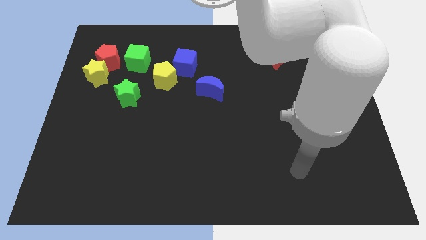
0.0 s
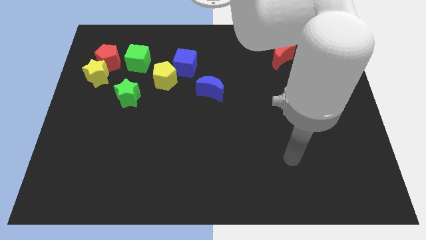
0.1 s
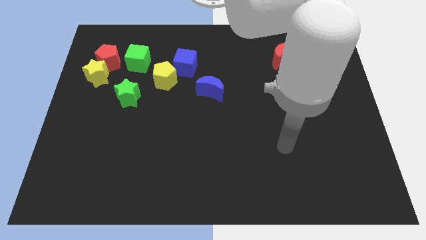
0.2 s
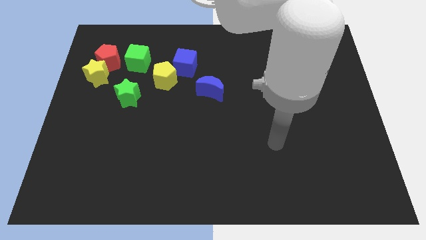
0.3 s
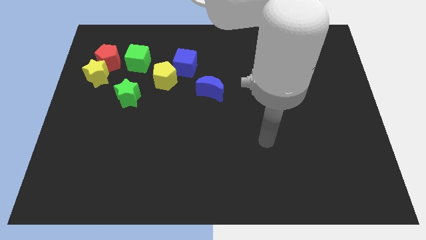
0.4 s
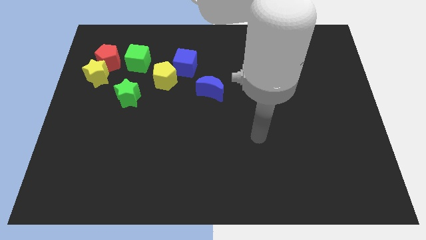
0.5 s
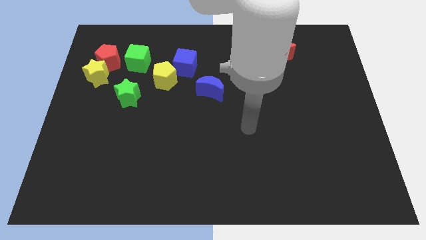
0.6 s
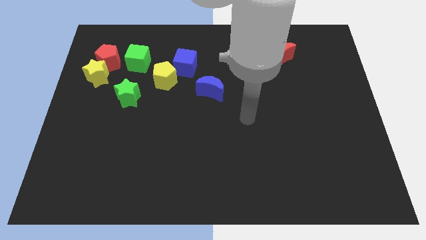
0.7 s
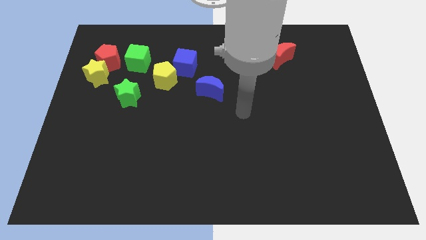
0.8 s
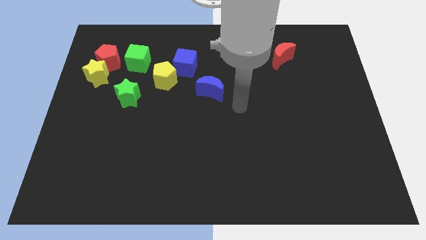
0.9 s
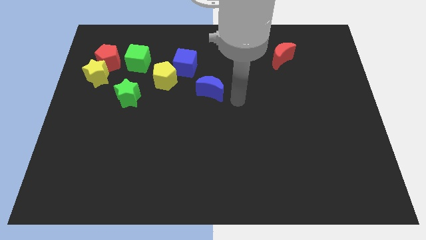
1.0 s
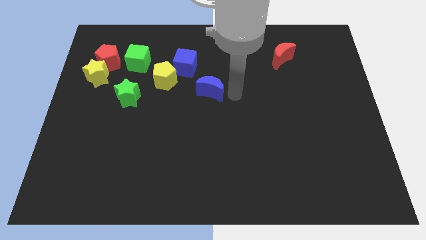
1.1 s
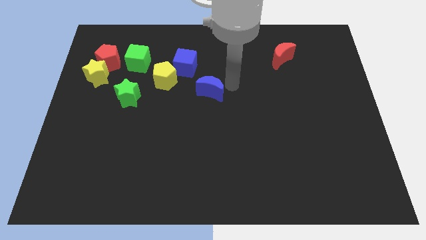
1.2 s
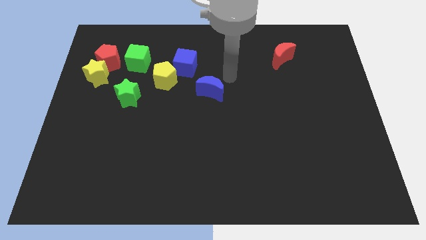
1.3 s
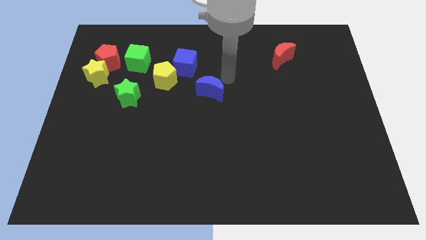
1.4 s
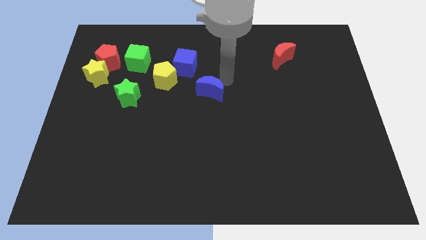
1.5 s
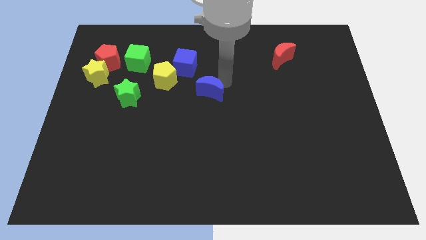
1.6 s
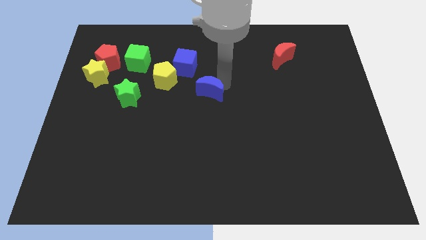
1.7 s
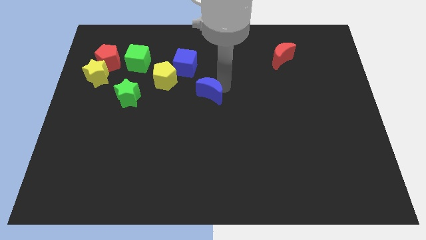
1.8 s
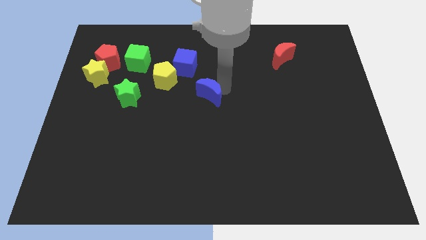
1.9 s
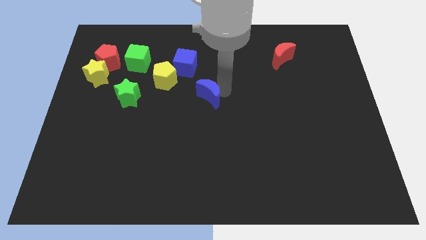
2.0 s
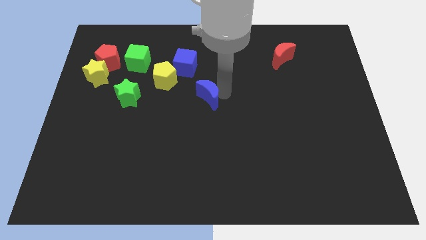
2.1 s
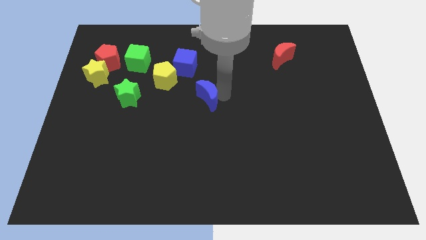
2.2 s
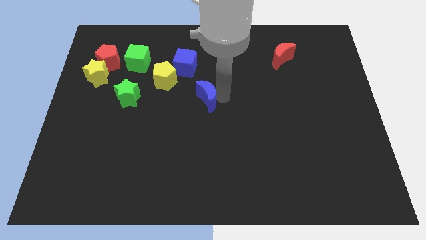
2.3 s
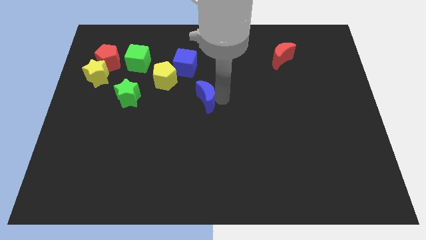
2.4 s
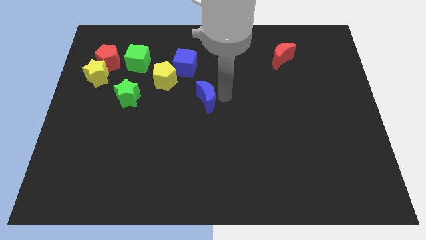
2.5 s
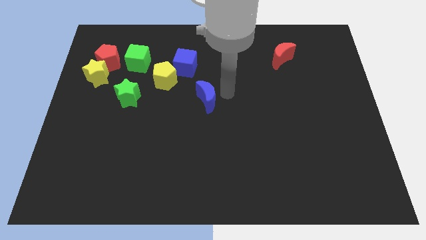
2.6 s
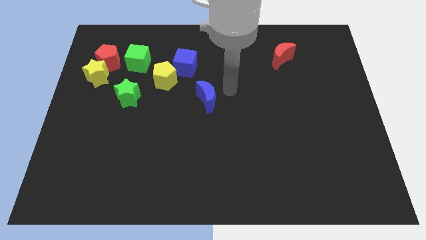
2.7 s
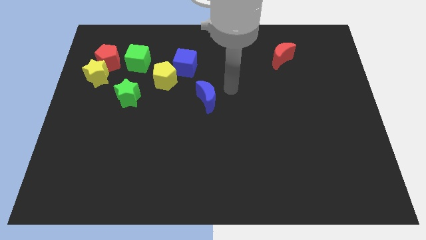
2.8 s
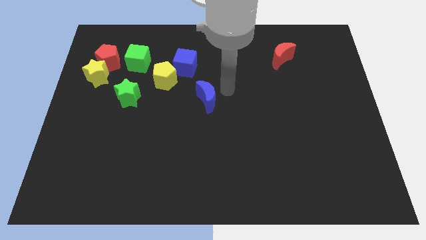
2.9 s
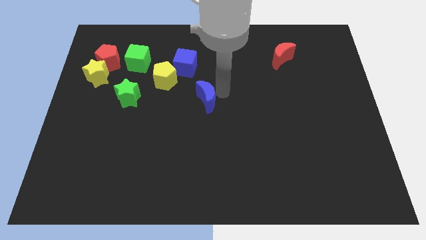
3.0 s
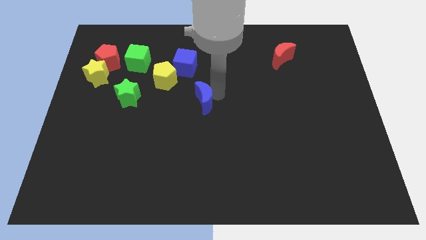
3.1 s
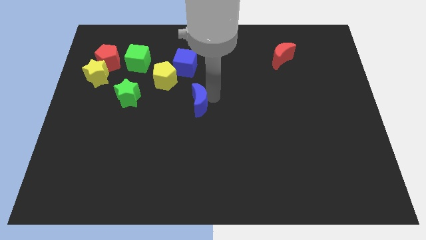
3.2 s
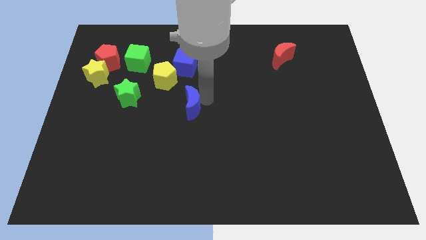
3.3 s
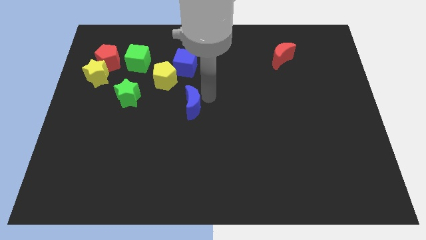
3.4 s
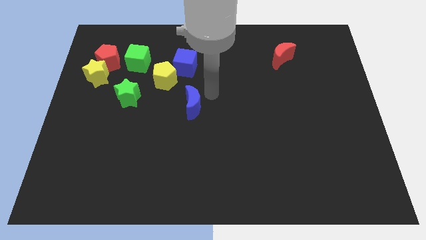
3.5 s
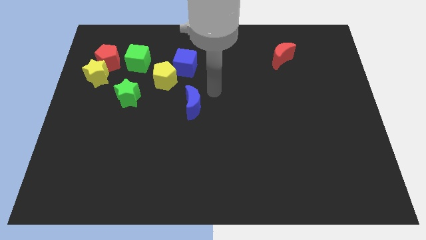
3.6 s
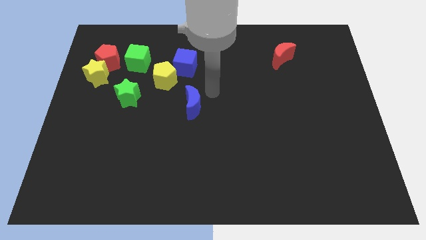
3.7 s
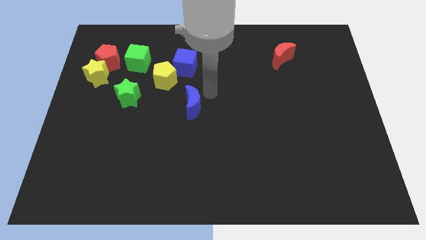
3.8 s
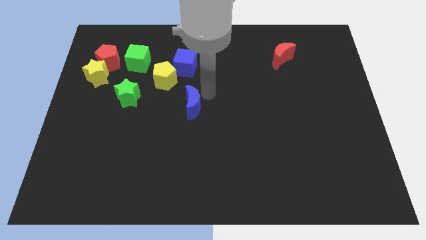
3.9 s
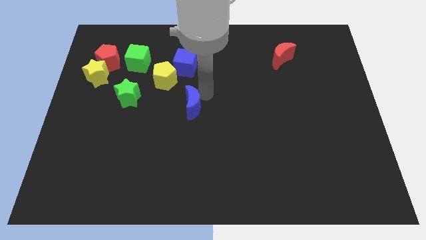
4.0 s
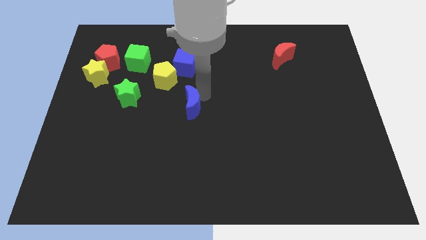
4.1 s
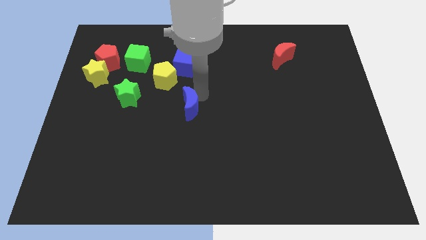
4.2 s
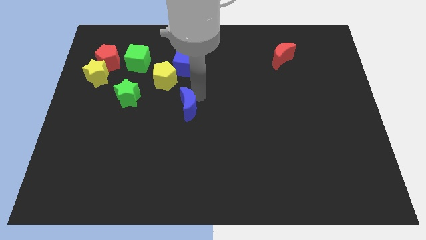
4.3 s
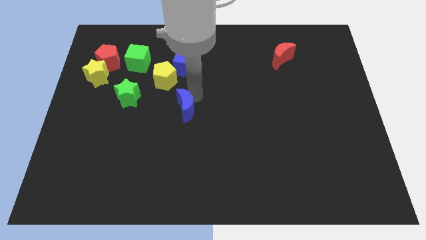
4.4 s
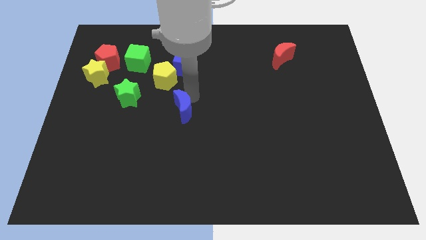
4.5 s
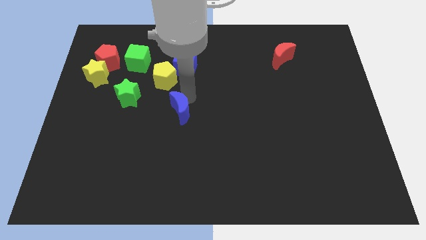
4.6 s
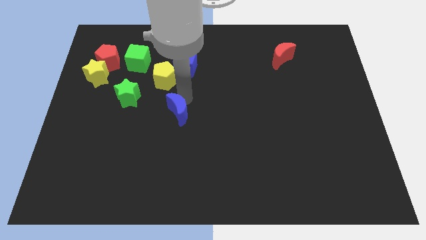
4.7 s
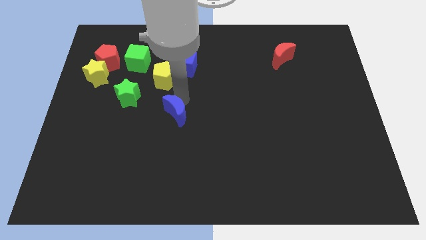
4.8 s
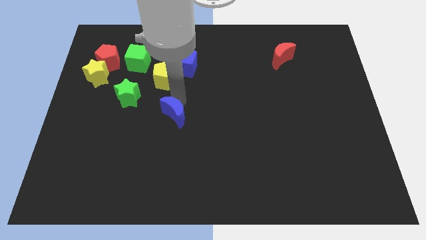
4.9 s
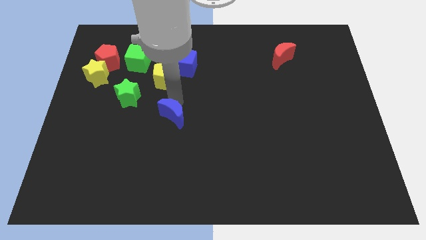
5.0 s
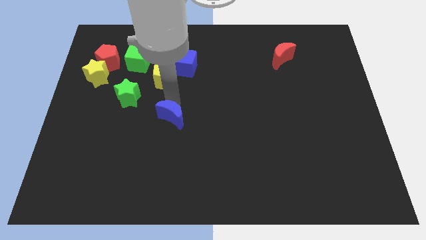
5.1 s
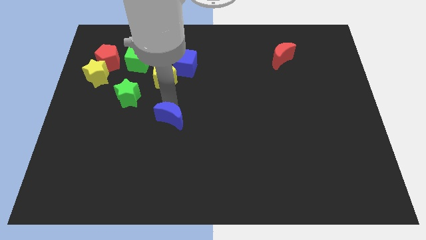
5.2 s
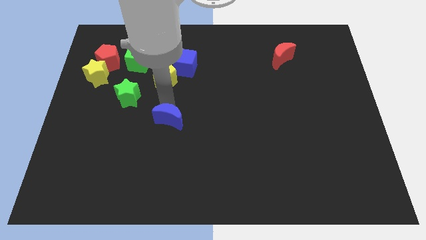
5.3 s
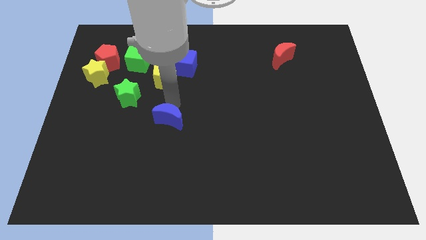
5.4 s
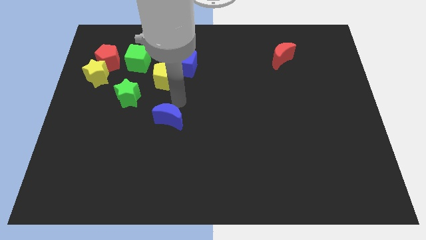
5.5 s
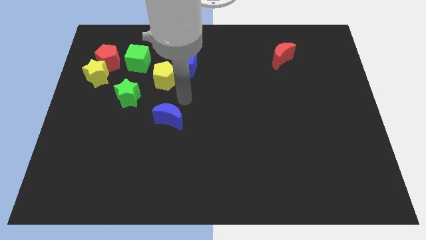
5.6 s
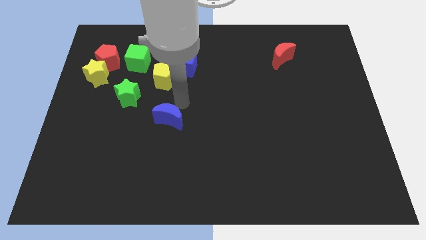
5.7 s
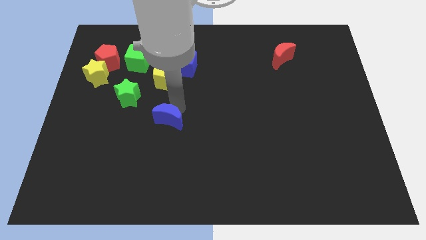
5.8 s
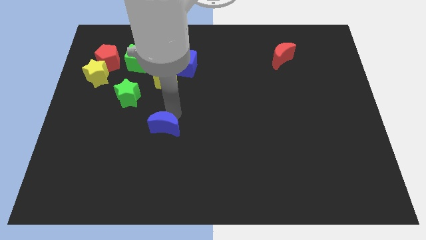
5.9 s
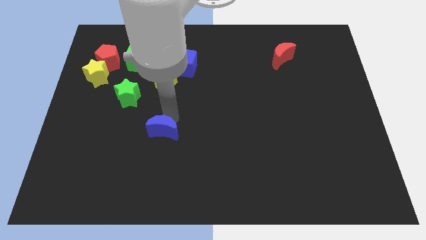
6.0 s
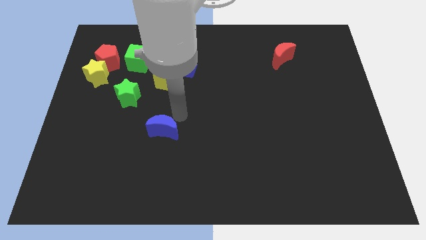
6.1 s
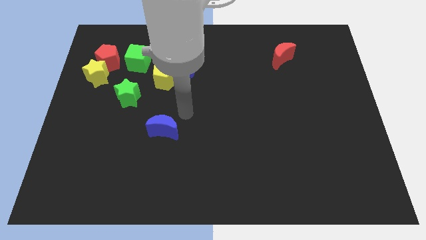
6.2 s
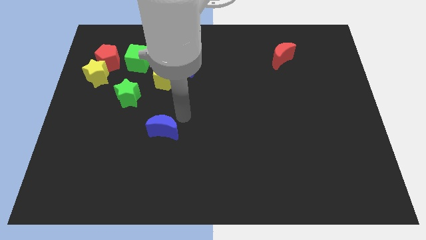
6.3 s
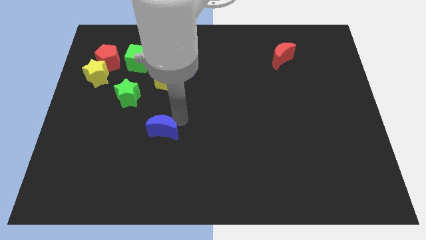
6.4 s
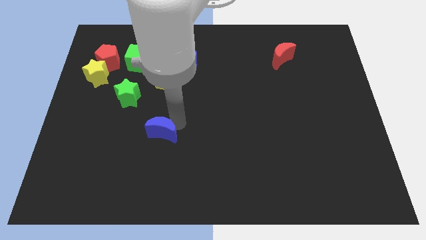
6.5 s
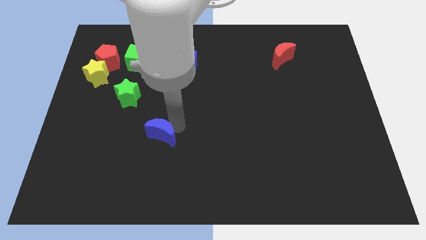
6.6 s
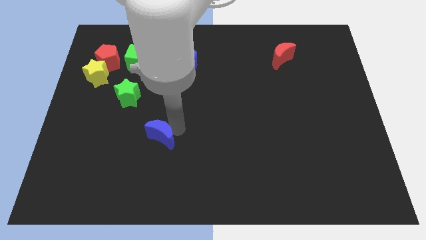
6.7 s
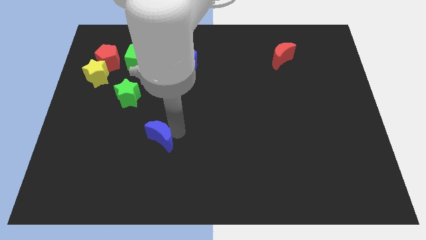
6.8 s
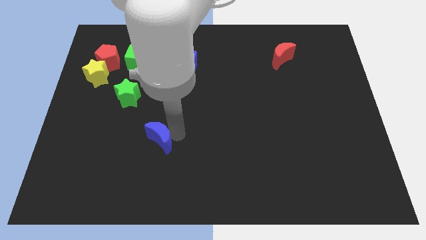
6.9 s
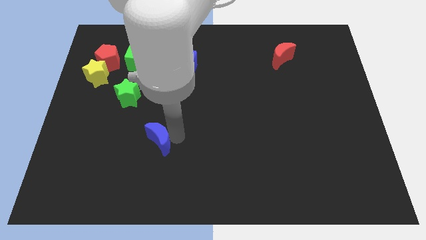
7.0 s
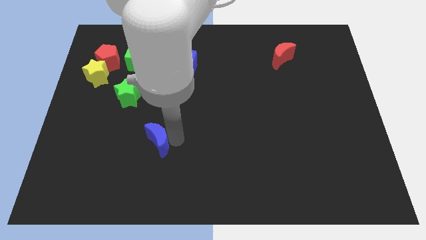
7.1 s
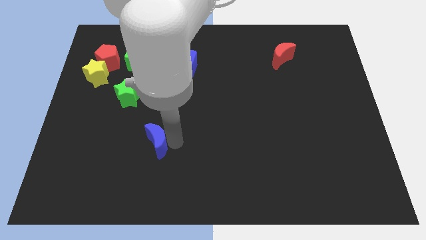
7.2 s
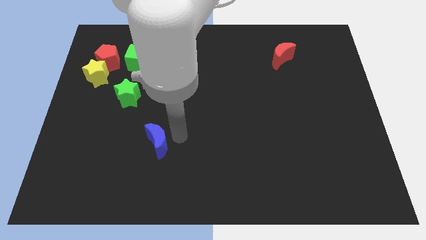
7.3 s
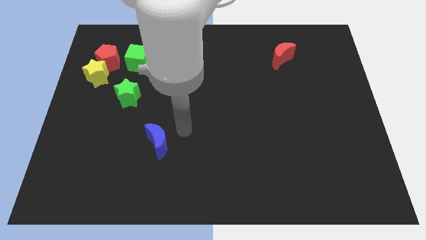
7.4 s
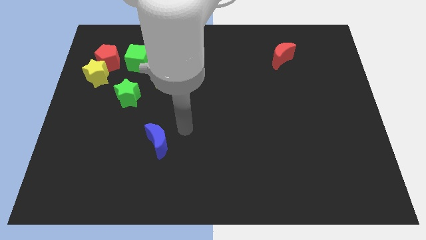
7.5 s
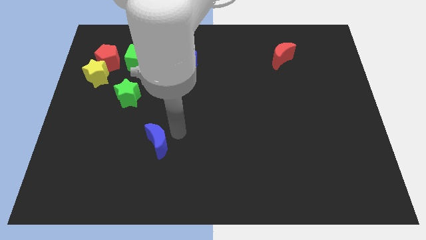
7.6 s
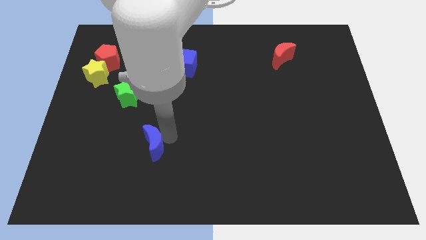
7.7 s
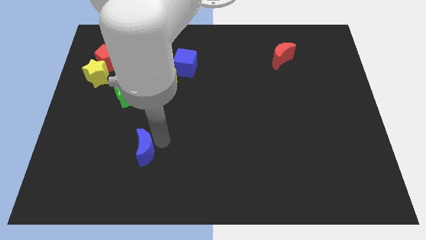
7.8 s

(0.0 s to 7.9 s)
move the blue moon down and left diagonally

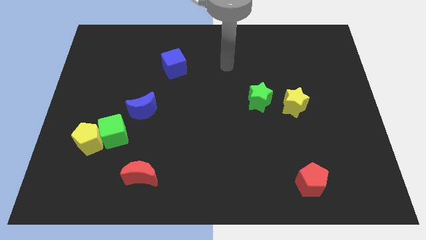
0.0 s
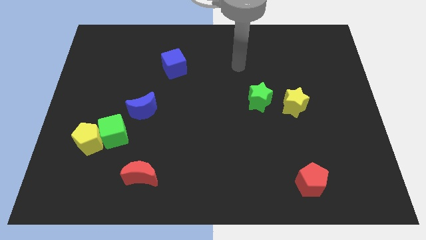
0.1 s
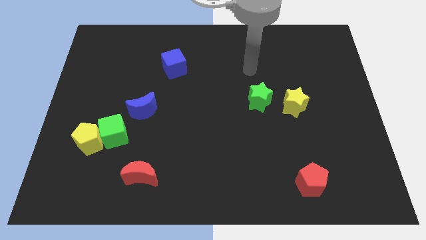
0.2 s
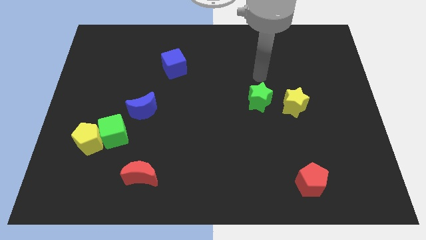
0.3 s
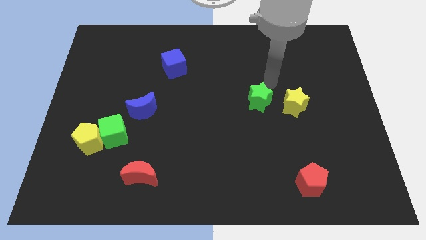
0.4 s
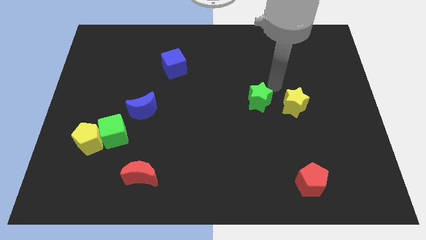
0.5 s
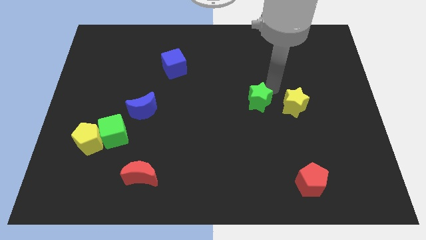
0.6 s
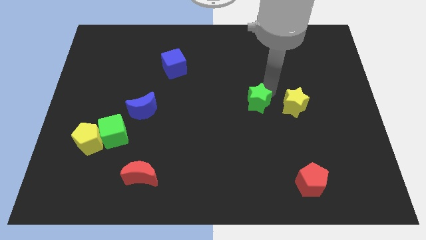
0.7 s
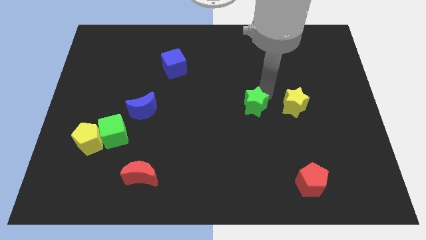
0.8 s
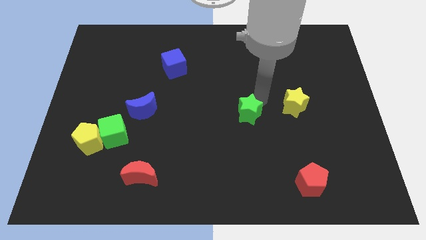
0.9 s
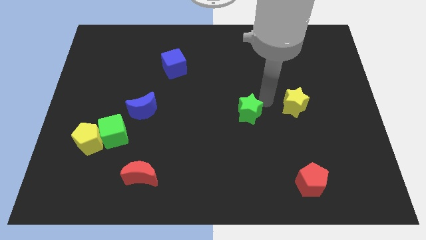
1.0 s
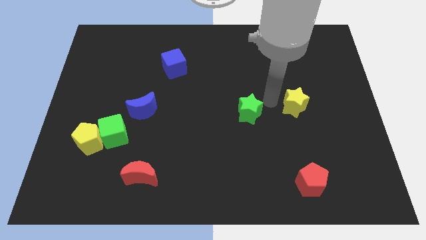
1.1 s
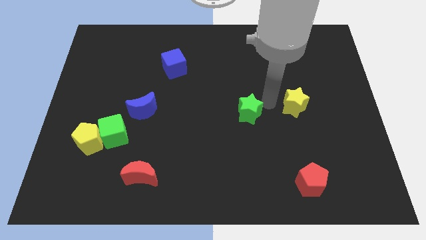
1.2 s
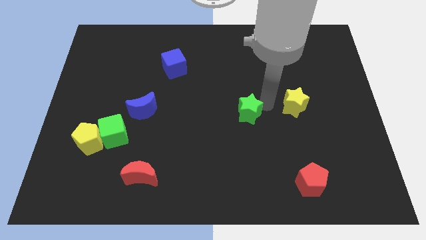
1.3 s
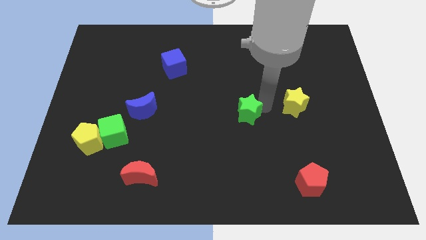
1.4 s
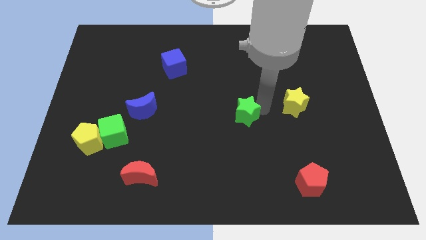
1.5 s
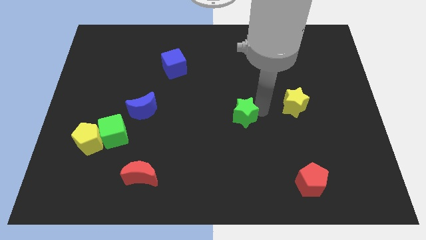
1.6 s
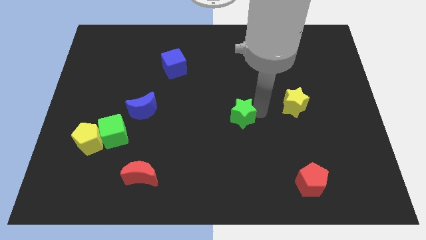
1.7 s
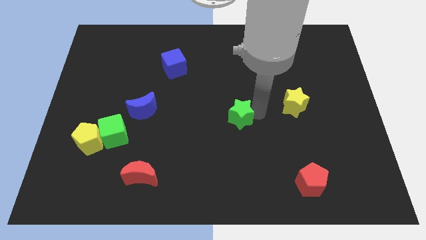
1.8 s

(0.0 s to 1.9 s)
slide the green star somewhat down and to the left
